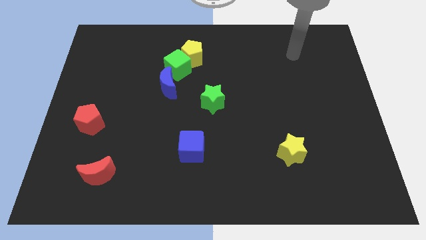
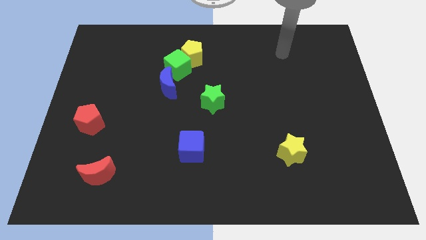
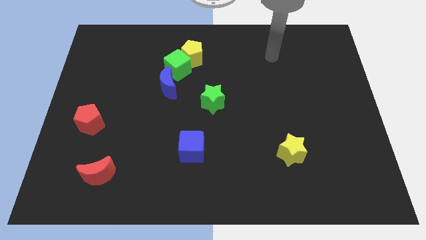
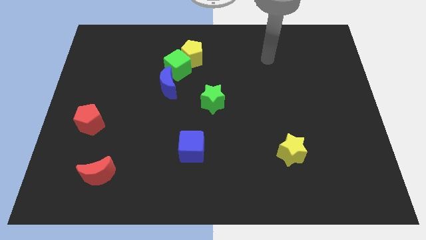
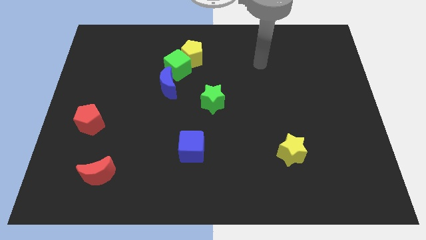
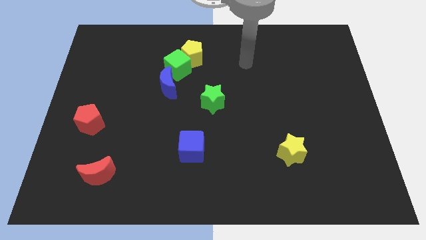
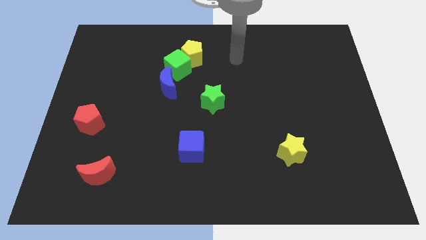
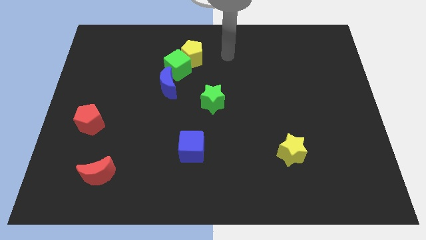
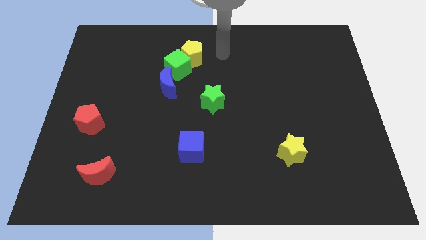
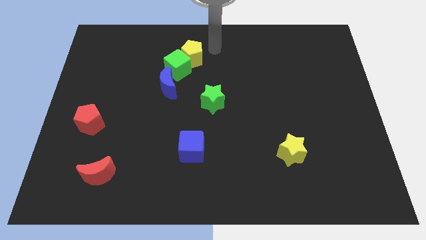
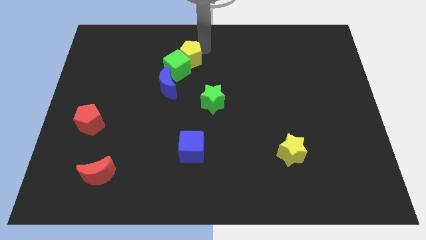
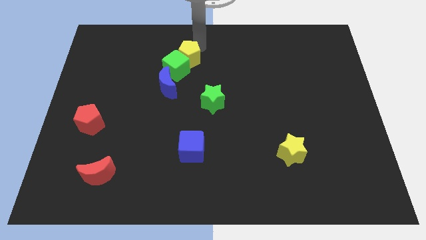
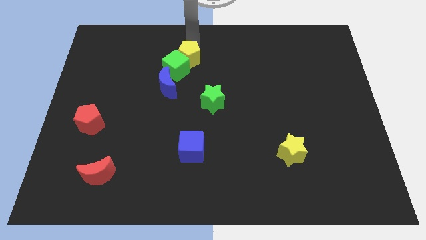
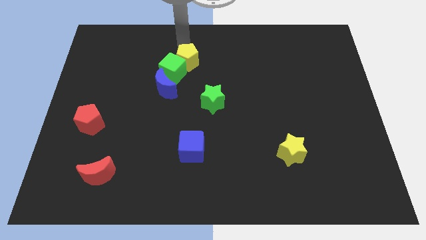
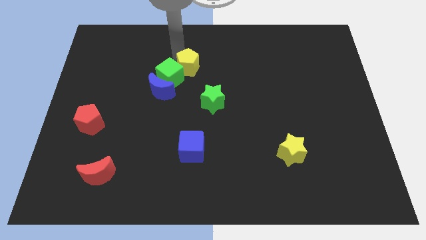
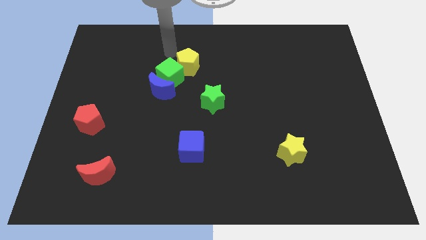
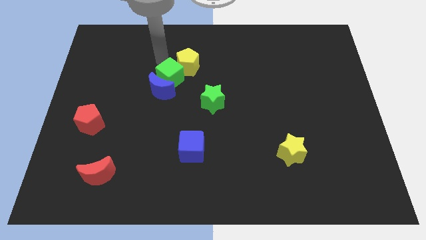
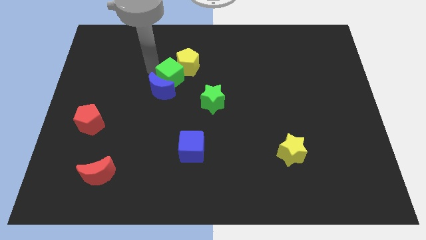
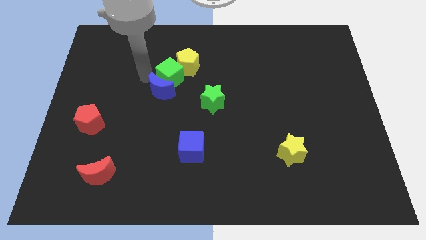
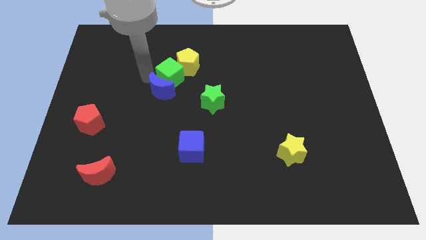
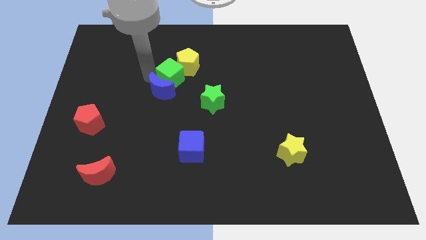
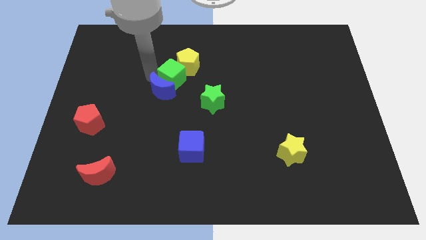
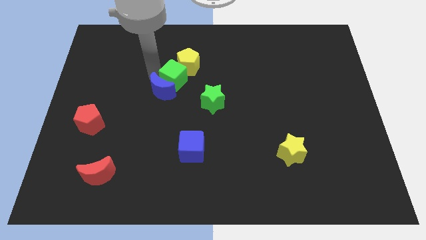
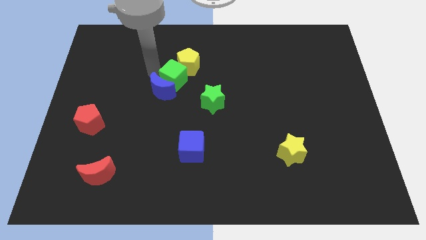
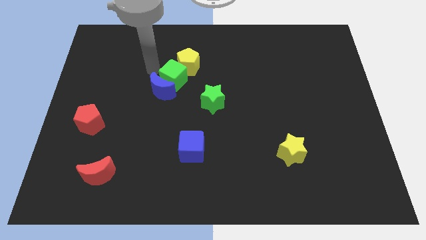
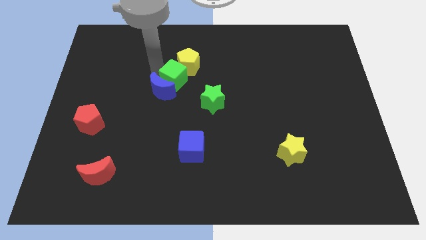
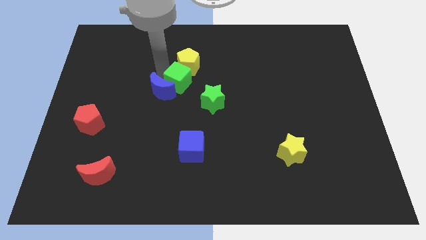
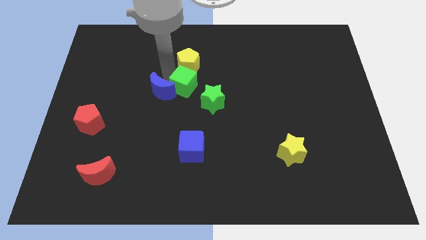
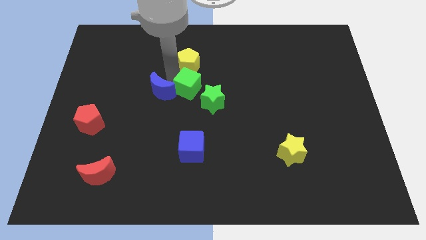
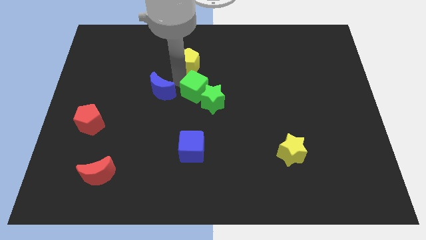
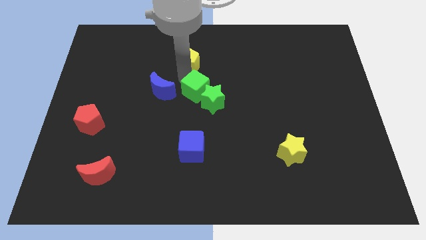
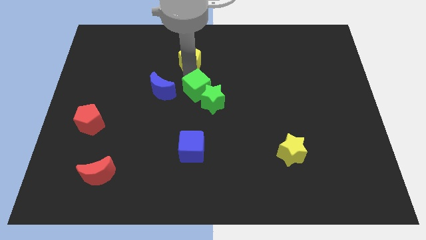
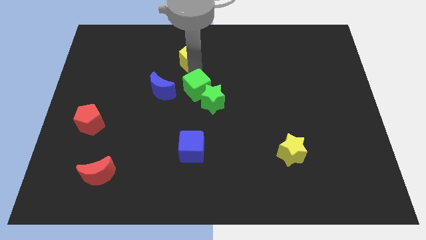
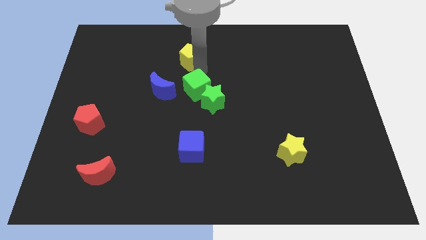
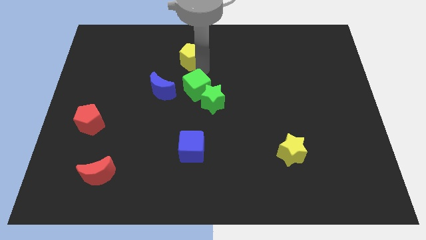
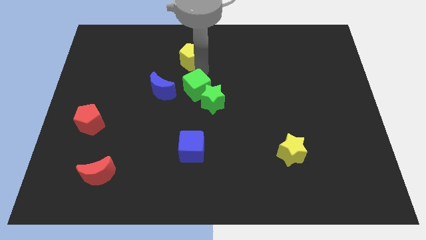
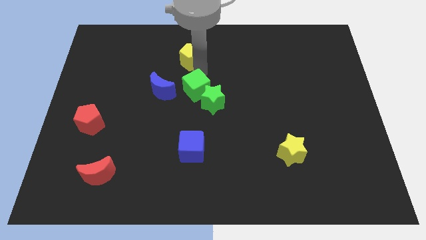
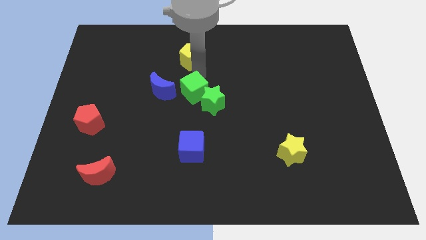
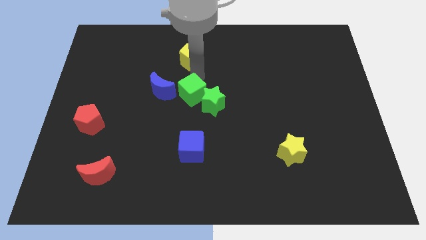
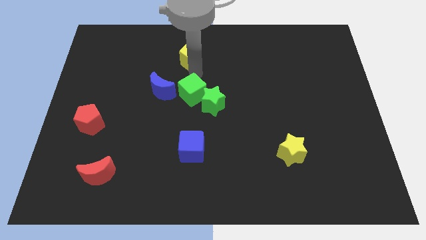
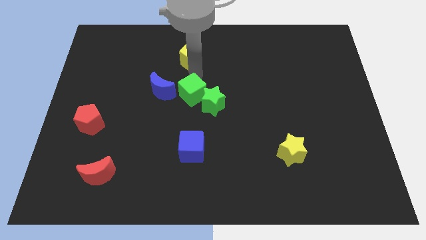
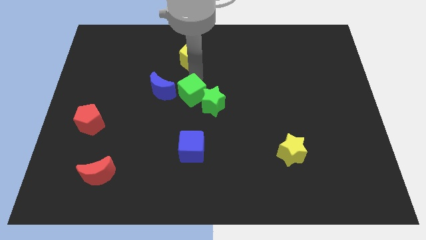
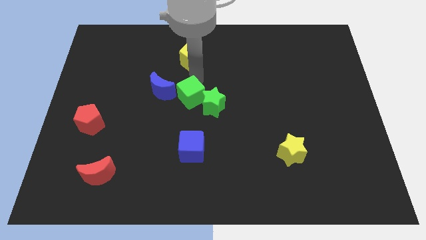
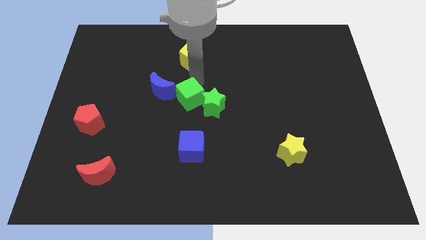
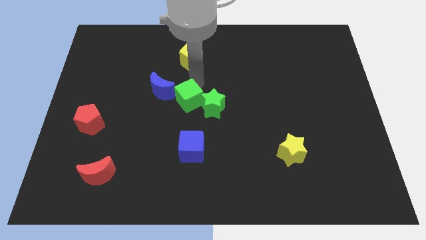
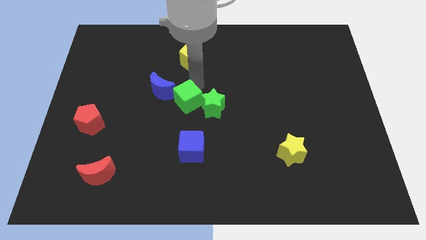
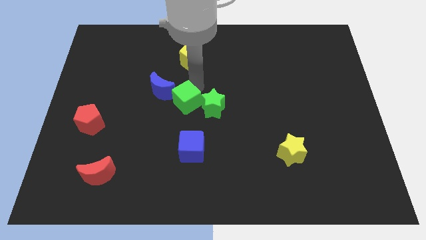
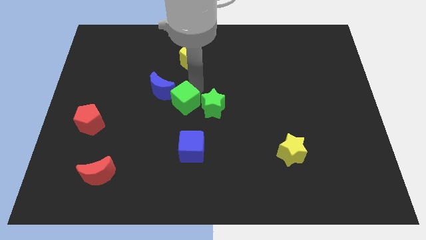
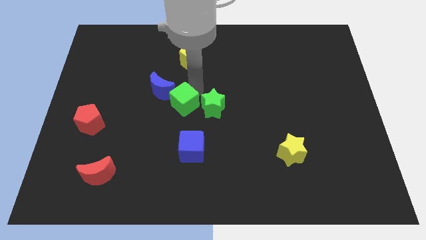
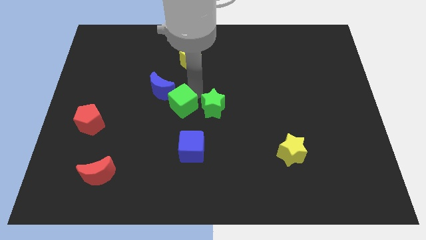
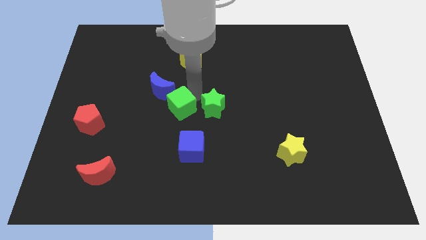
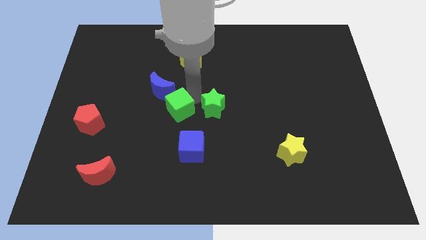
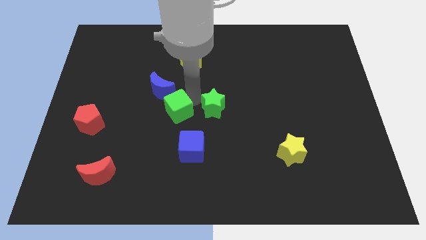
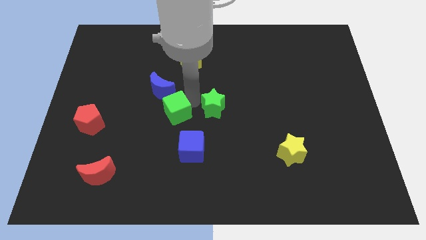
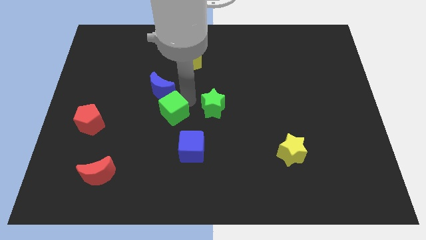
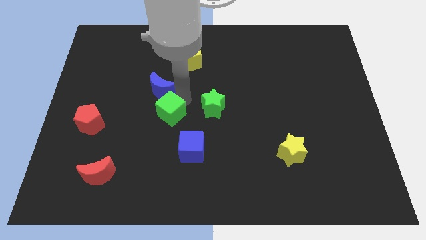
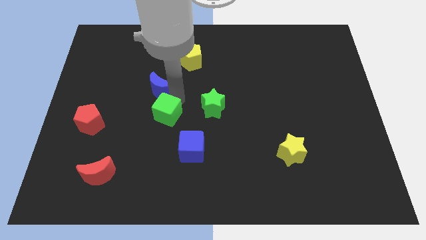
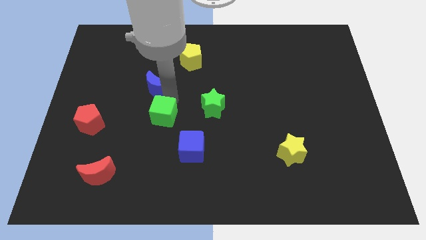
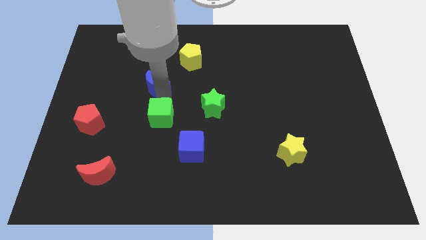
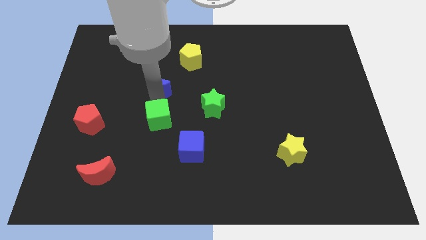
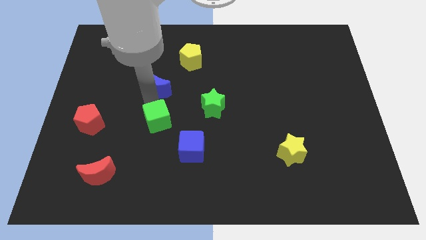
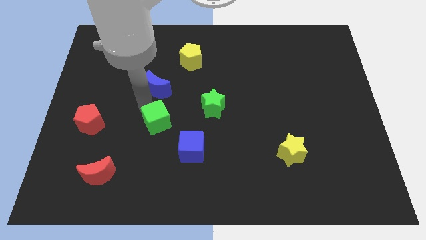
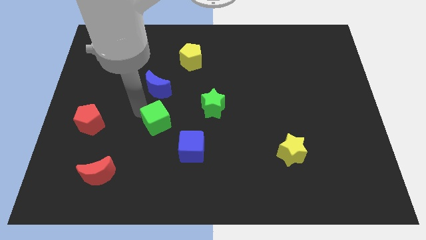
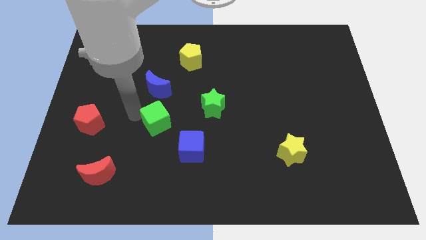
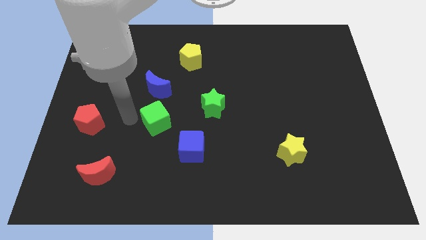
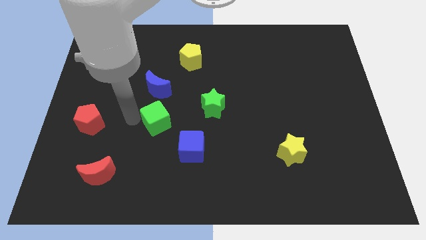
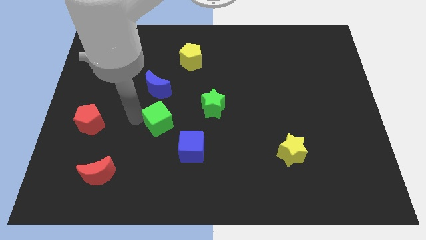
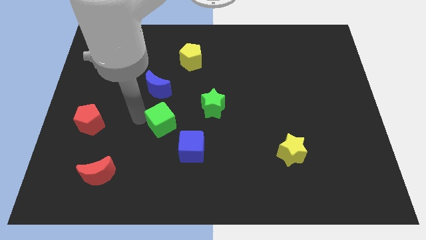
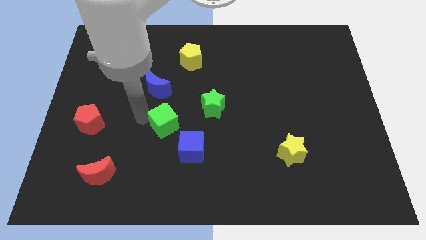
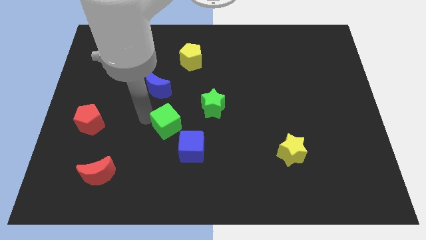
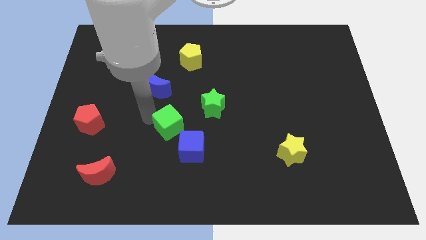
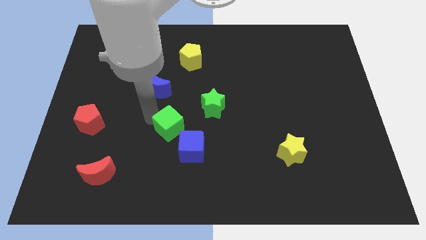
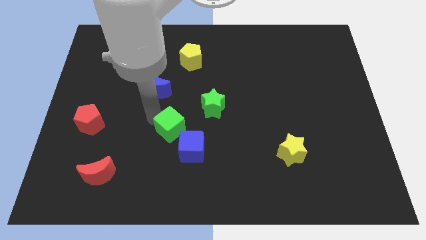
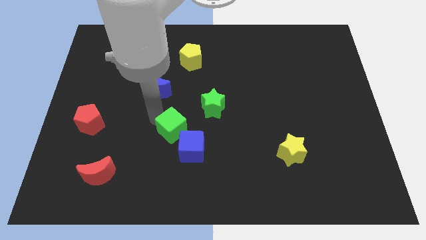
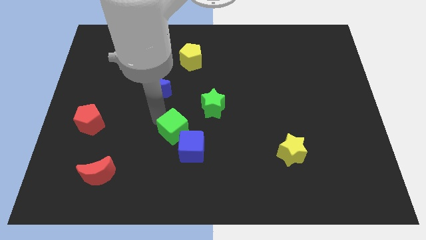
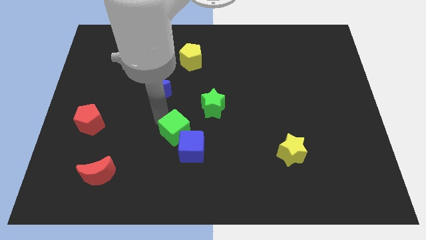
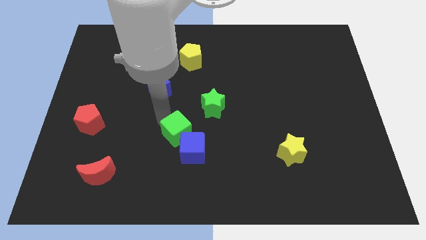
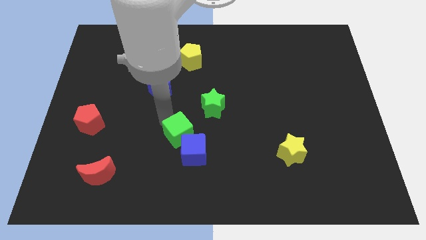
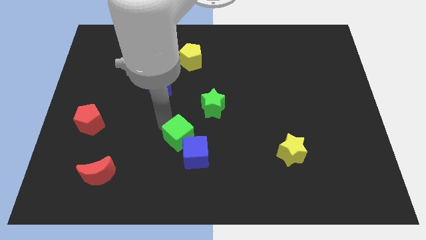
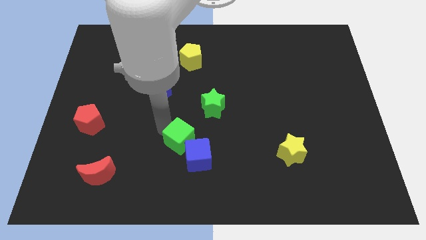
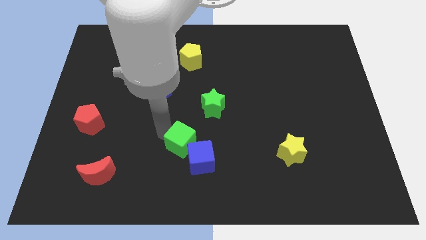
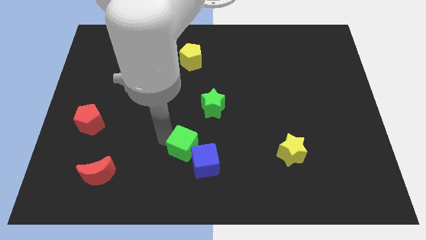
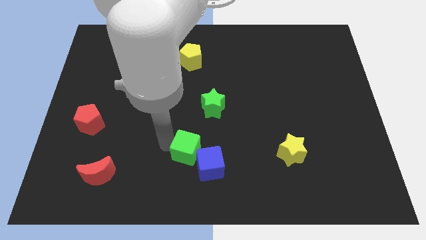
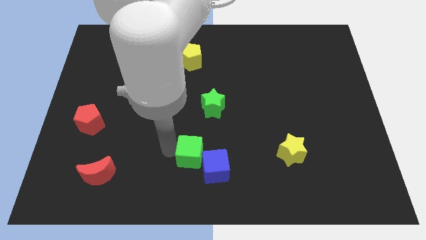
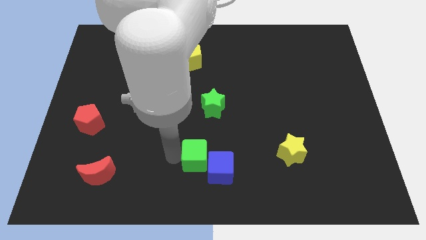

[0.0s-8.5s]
slide the green cube to the bottom
